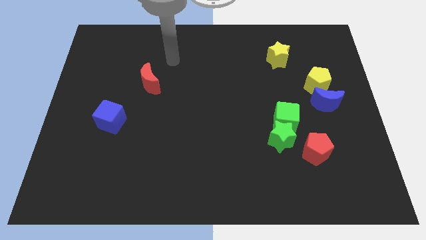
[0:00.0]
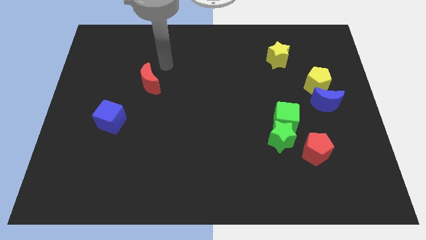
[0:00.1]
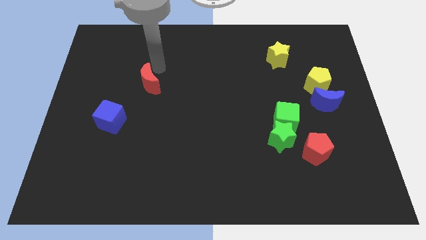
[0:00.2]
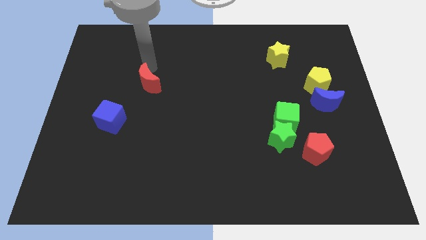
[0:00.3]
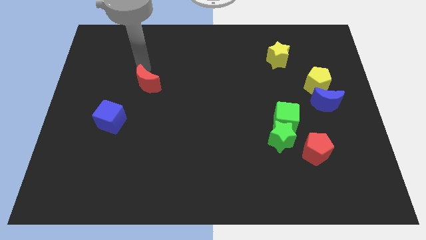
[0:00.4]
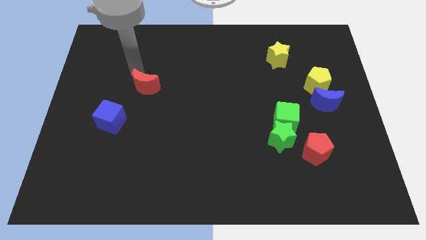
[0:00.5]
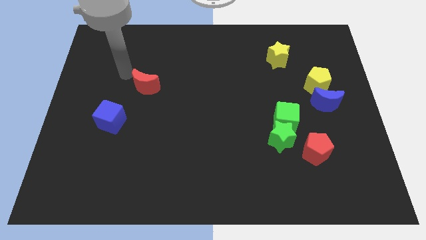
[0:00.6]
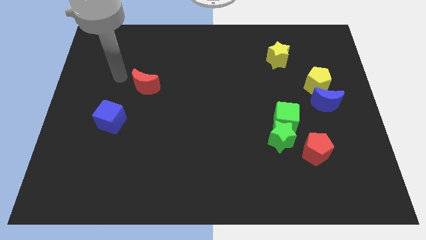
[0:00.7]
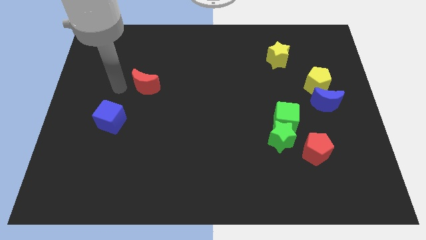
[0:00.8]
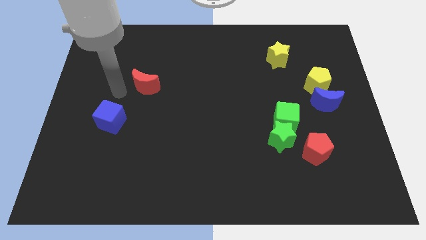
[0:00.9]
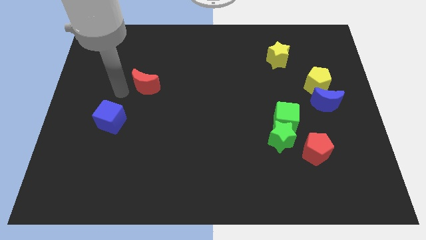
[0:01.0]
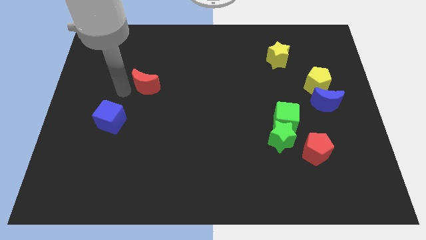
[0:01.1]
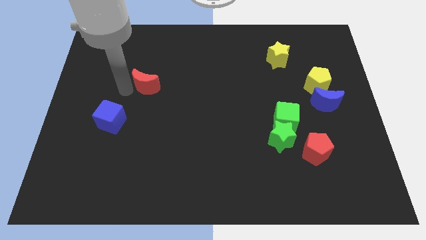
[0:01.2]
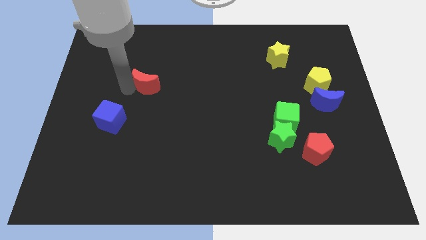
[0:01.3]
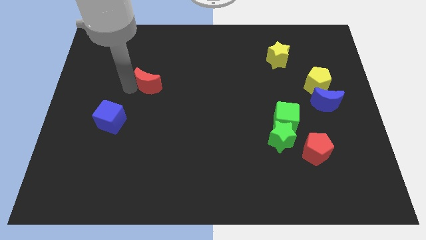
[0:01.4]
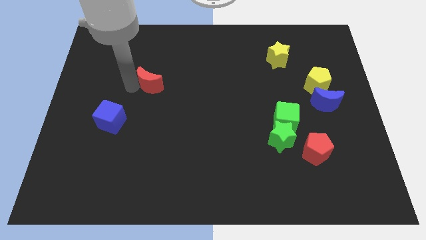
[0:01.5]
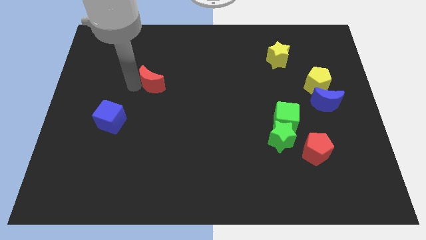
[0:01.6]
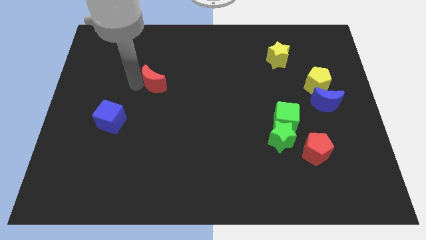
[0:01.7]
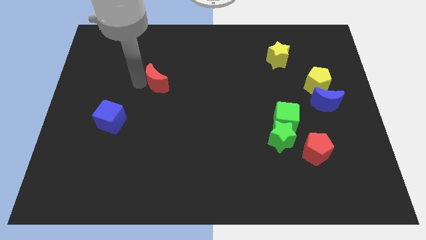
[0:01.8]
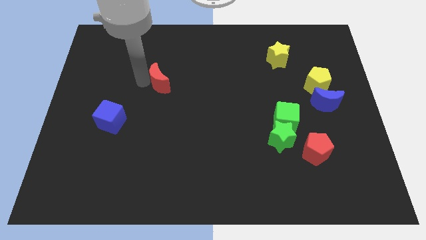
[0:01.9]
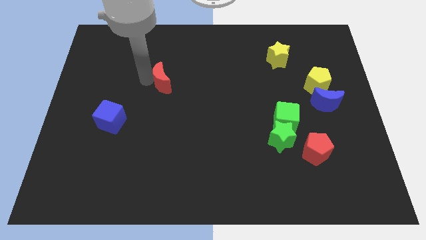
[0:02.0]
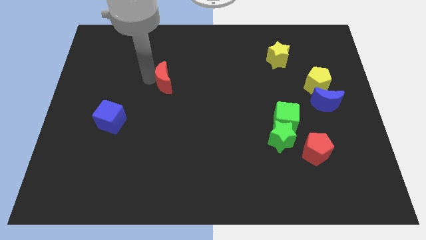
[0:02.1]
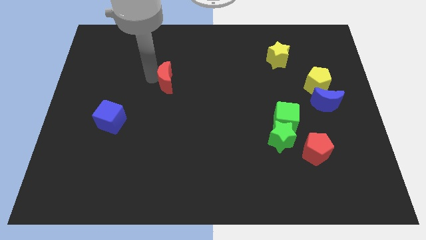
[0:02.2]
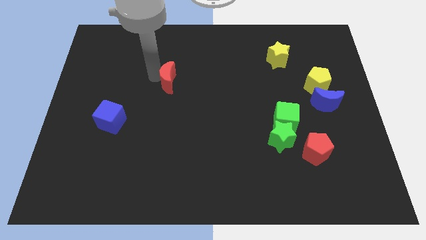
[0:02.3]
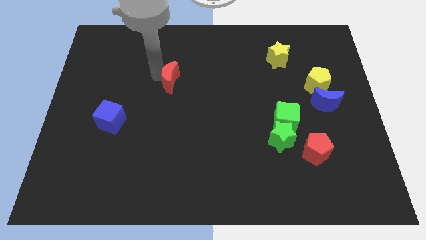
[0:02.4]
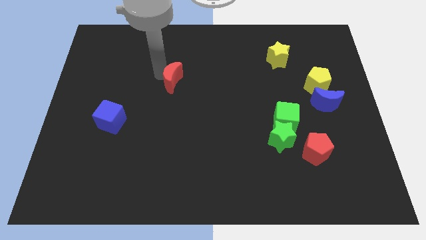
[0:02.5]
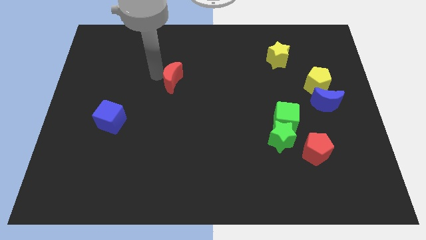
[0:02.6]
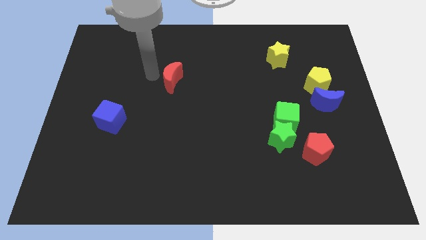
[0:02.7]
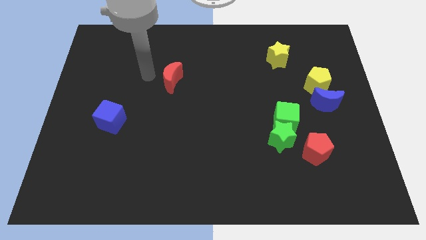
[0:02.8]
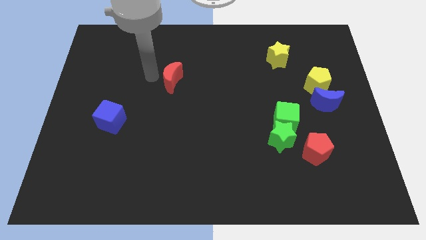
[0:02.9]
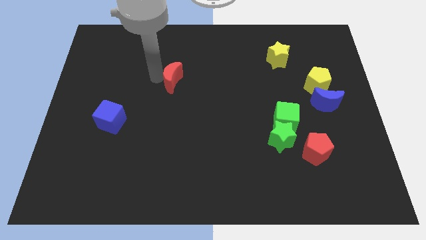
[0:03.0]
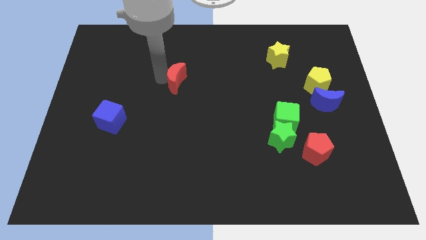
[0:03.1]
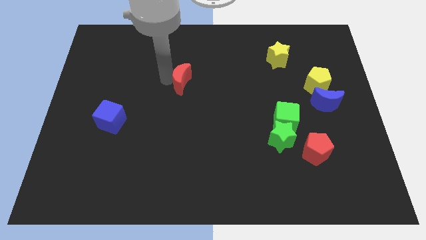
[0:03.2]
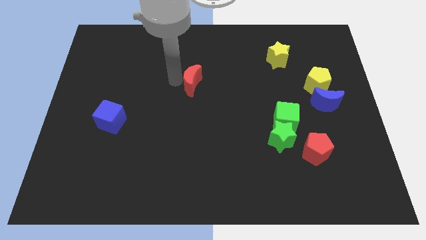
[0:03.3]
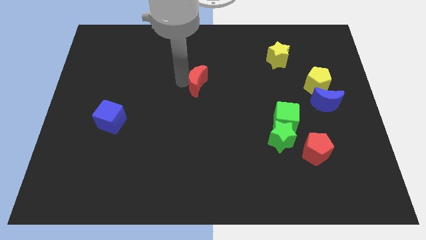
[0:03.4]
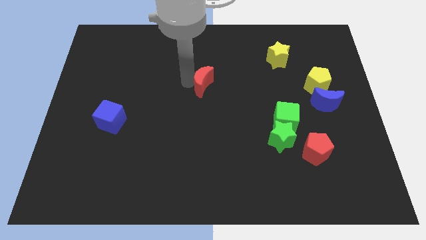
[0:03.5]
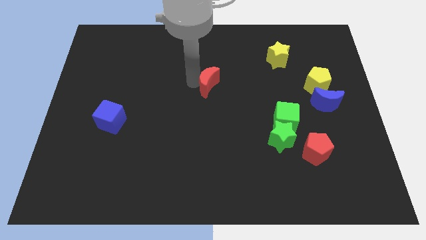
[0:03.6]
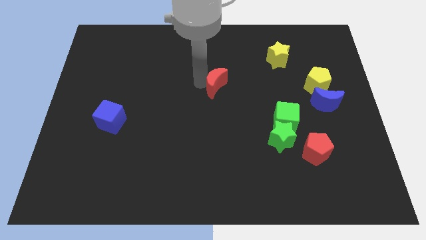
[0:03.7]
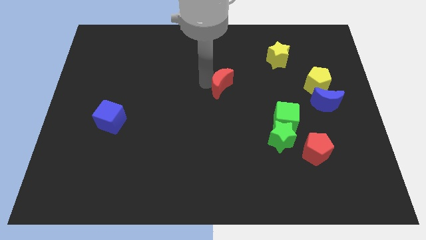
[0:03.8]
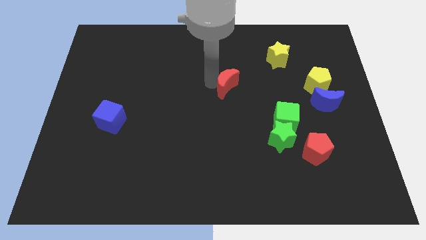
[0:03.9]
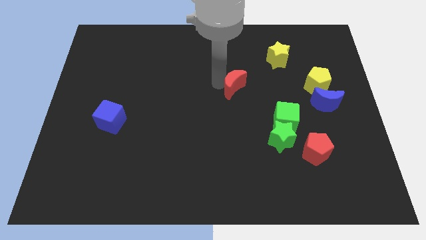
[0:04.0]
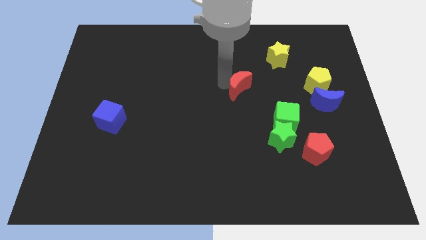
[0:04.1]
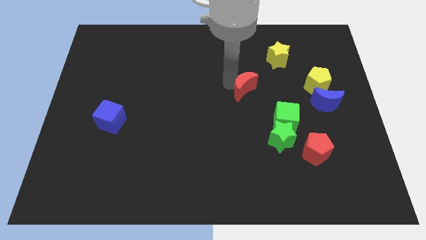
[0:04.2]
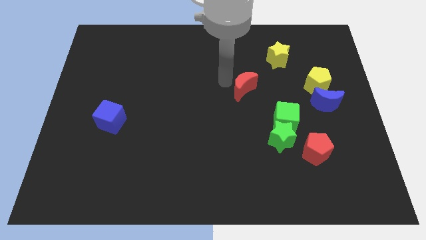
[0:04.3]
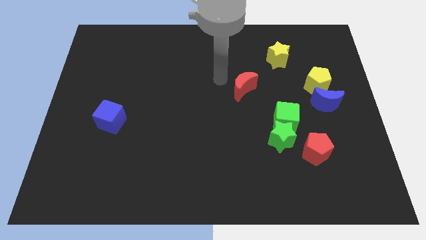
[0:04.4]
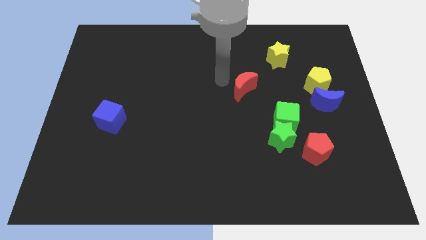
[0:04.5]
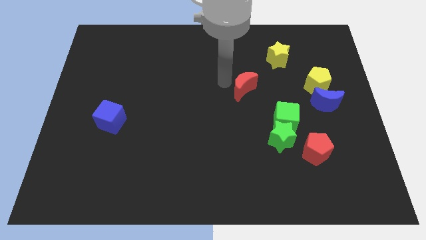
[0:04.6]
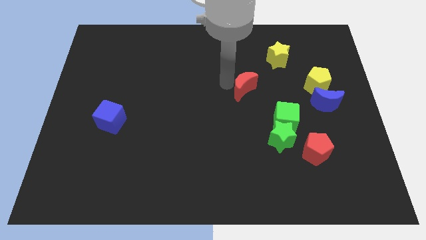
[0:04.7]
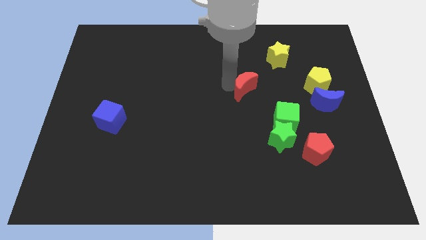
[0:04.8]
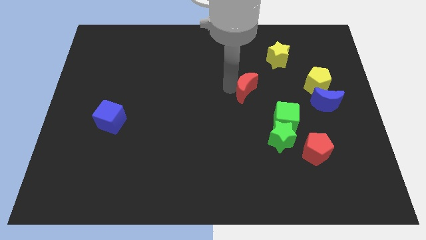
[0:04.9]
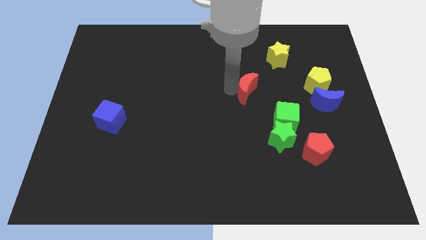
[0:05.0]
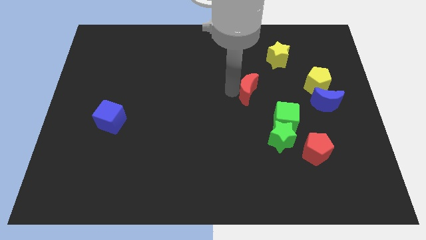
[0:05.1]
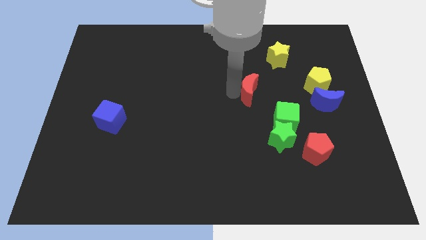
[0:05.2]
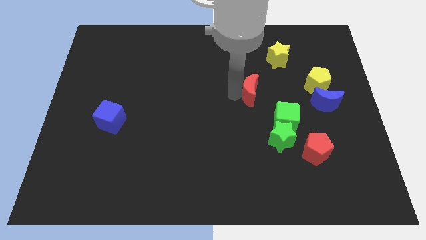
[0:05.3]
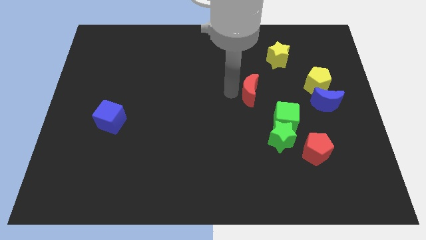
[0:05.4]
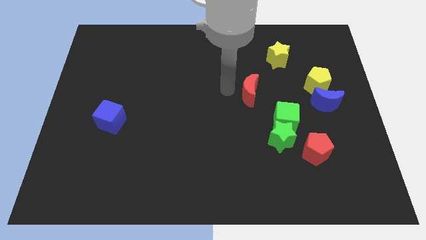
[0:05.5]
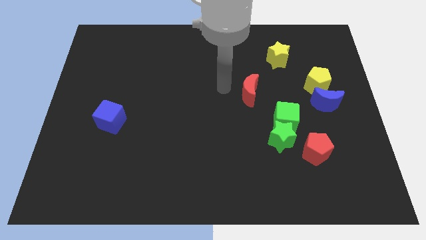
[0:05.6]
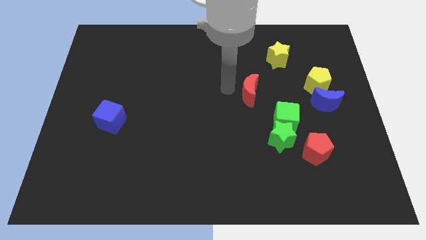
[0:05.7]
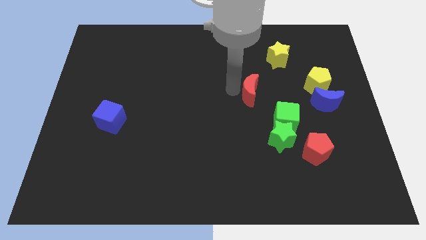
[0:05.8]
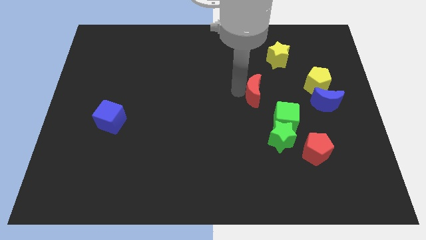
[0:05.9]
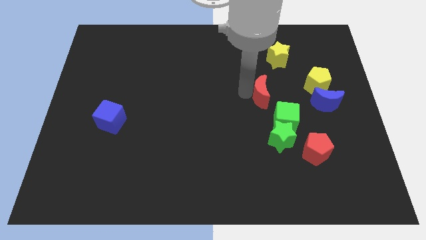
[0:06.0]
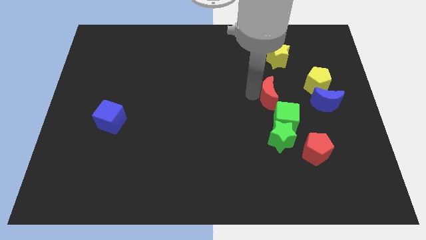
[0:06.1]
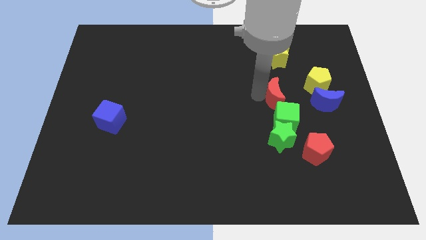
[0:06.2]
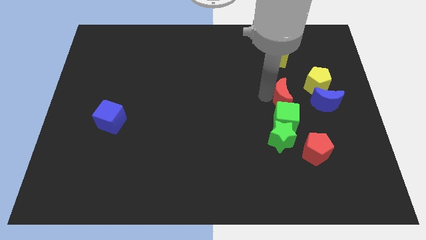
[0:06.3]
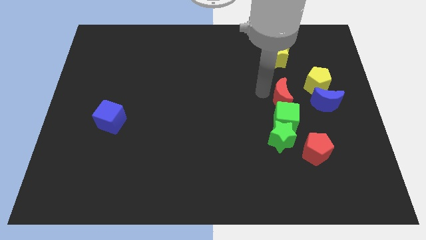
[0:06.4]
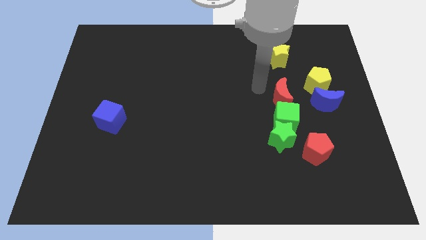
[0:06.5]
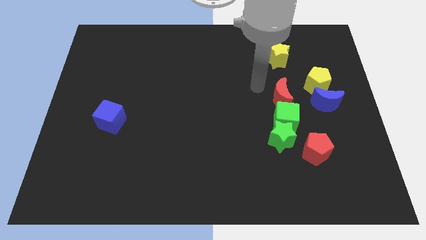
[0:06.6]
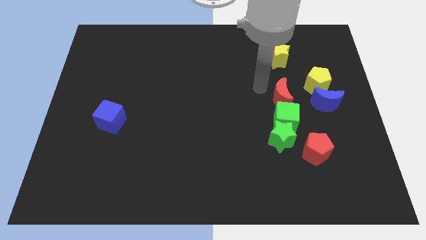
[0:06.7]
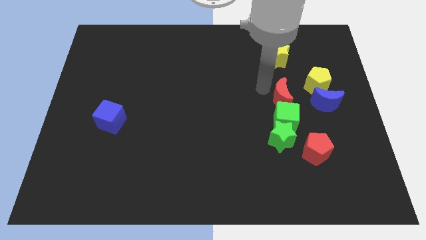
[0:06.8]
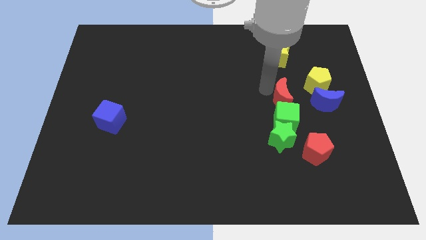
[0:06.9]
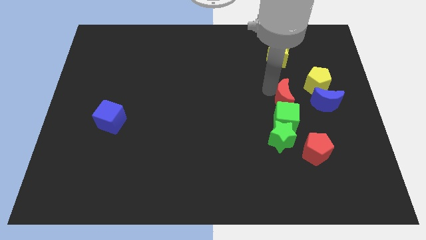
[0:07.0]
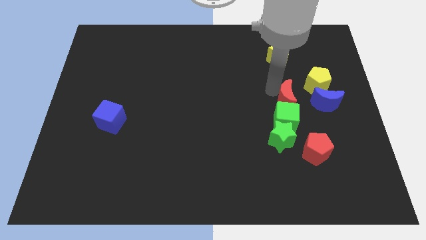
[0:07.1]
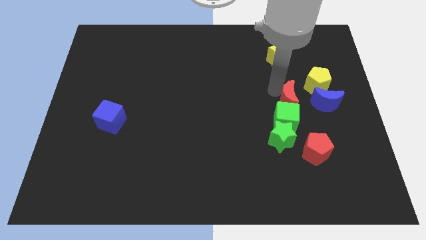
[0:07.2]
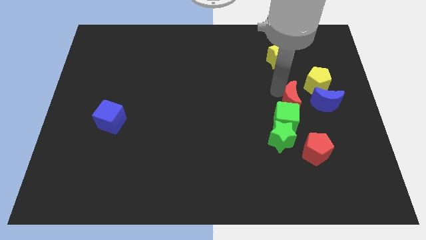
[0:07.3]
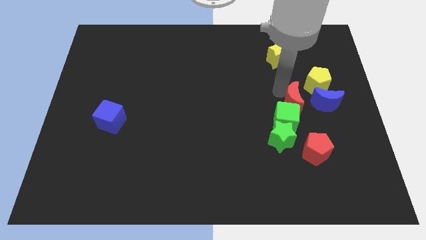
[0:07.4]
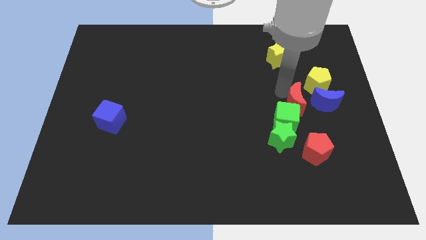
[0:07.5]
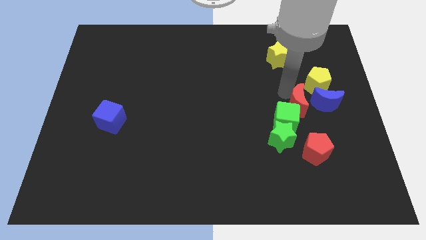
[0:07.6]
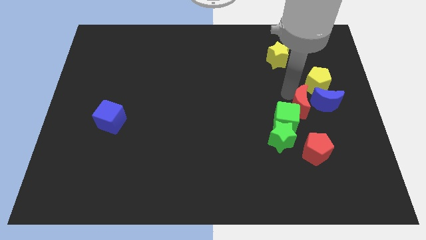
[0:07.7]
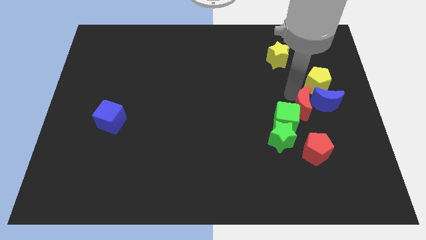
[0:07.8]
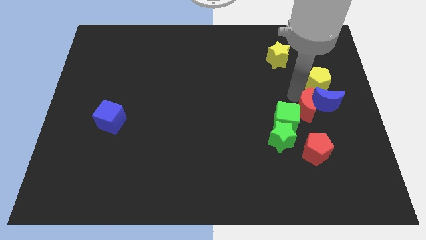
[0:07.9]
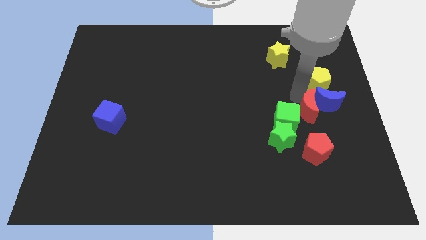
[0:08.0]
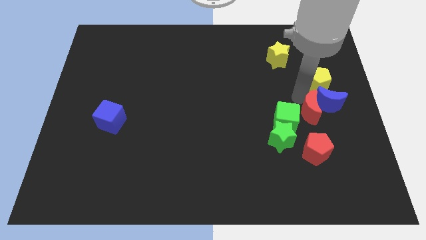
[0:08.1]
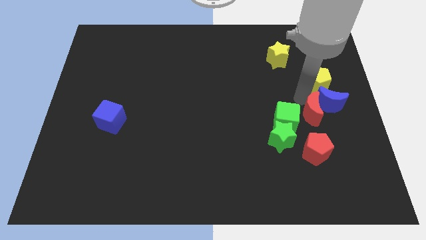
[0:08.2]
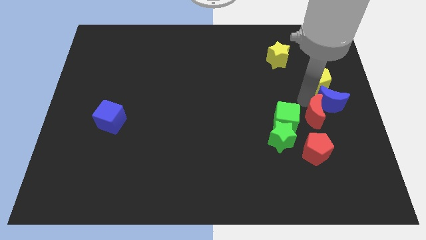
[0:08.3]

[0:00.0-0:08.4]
move the red moon to the bottom side of the blue moon

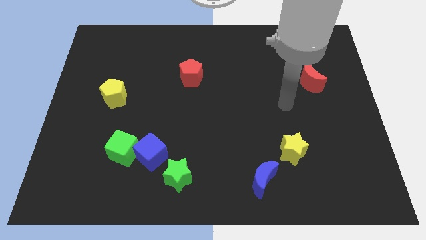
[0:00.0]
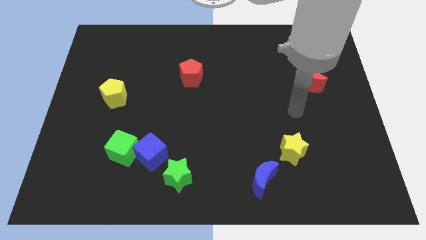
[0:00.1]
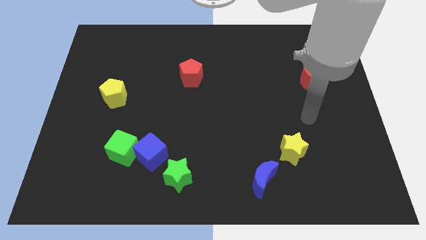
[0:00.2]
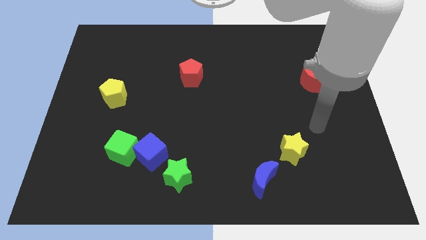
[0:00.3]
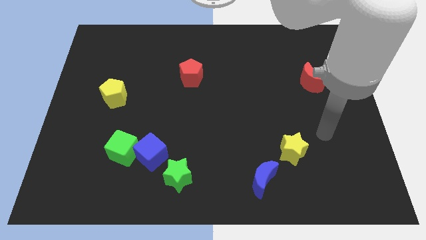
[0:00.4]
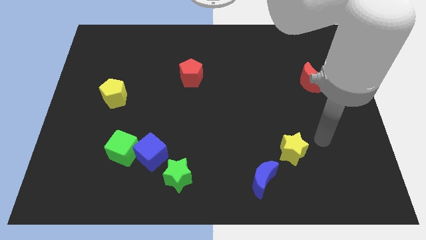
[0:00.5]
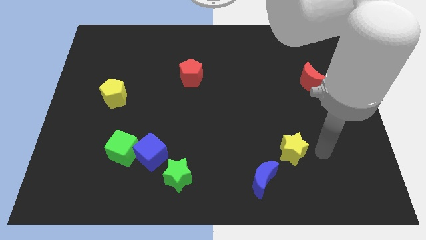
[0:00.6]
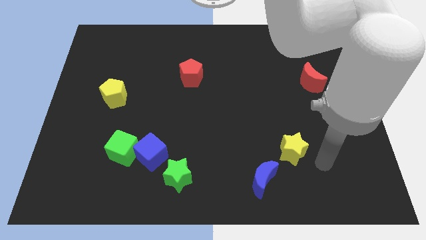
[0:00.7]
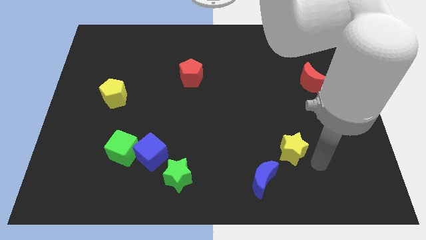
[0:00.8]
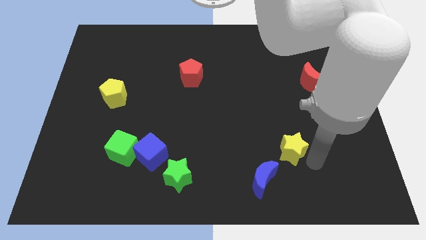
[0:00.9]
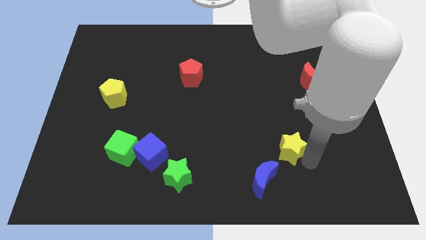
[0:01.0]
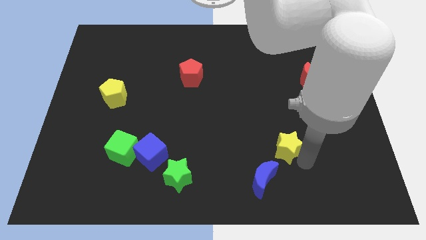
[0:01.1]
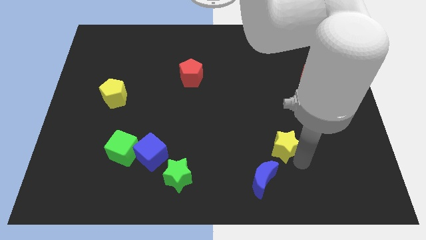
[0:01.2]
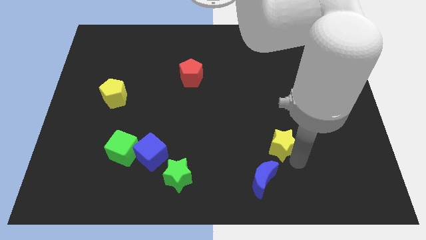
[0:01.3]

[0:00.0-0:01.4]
move the yellow star to the top of the blue moon
